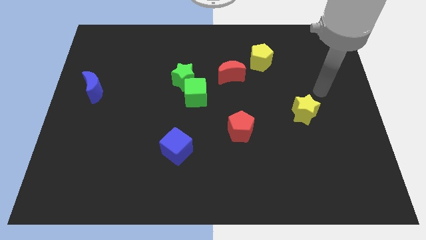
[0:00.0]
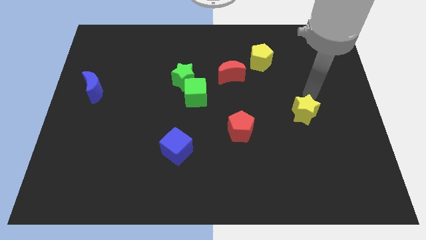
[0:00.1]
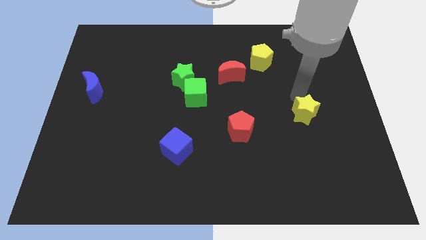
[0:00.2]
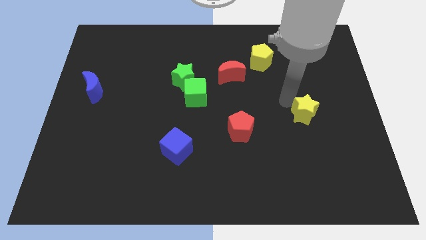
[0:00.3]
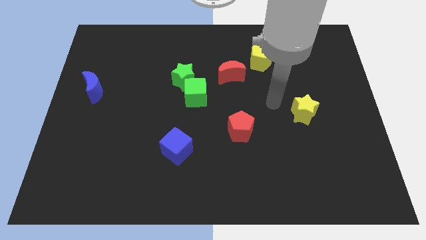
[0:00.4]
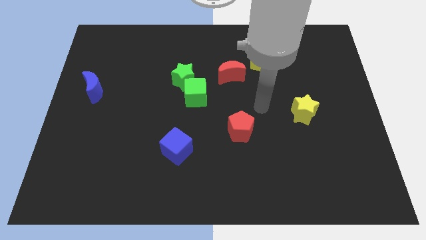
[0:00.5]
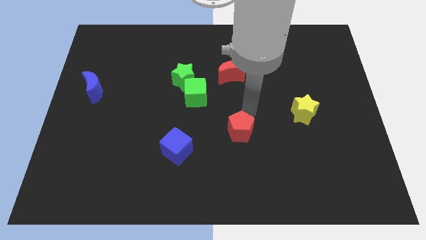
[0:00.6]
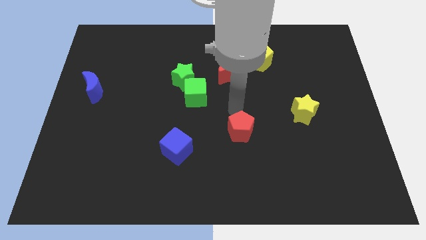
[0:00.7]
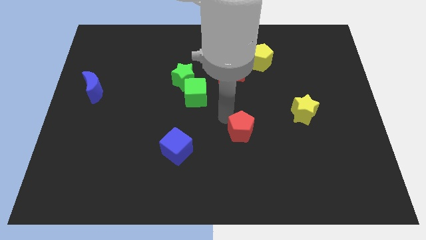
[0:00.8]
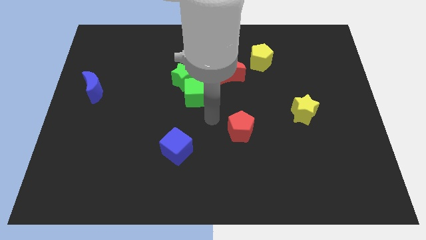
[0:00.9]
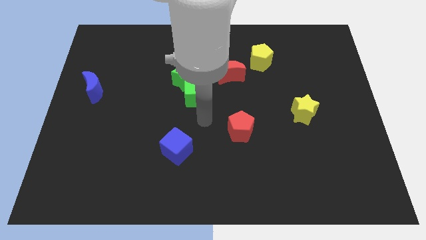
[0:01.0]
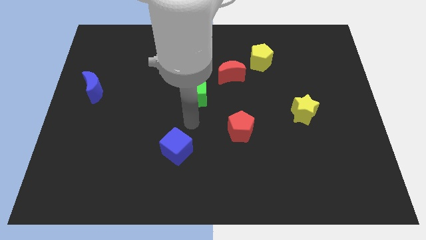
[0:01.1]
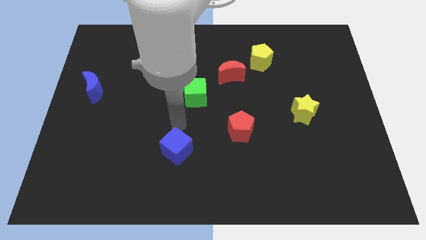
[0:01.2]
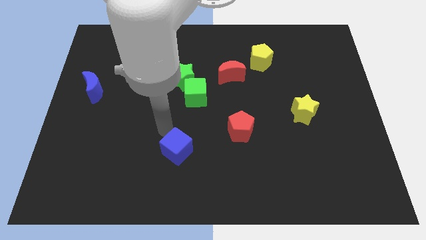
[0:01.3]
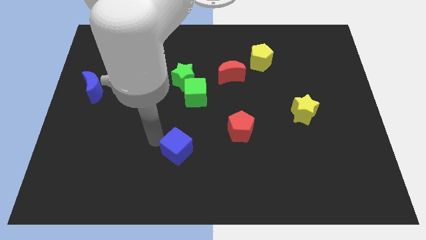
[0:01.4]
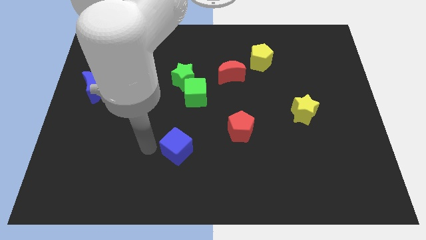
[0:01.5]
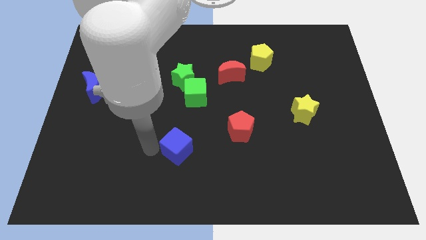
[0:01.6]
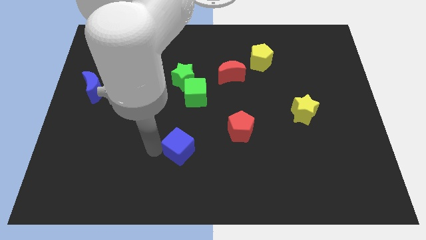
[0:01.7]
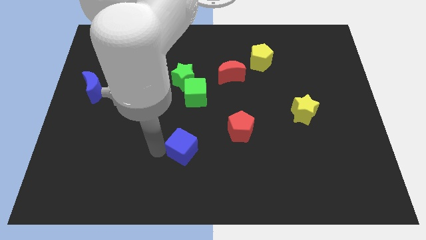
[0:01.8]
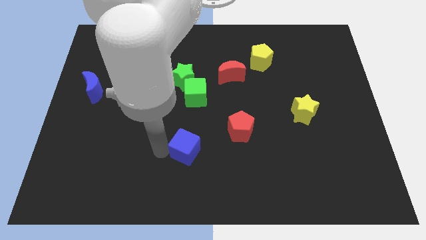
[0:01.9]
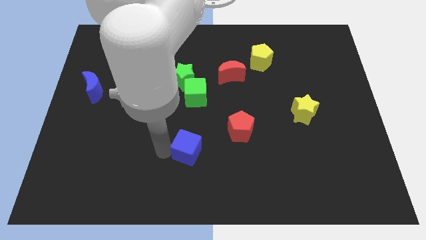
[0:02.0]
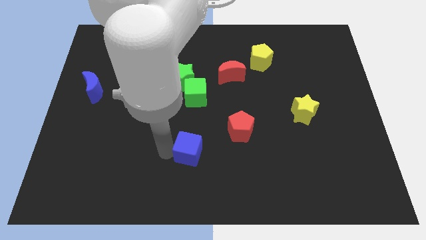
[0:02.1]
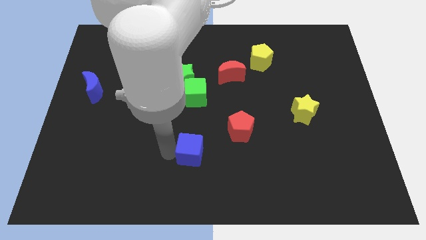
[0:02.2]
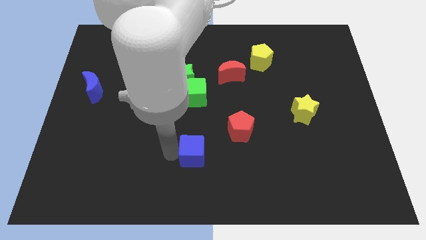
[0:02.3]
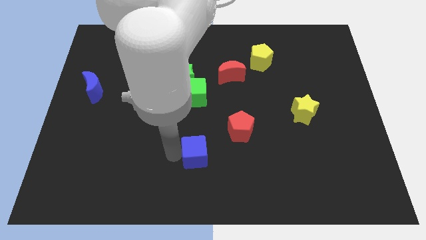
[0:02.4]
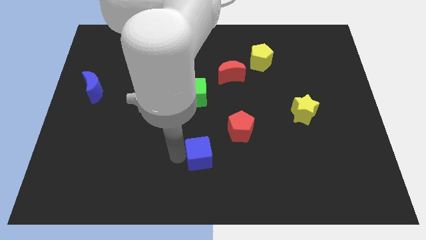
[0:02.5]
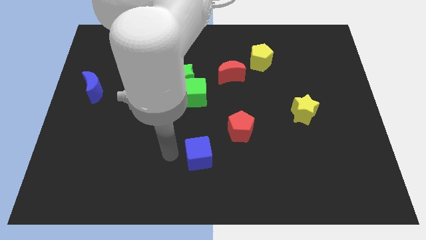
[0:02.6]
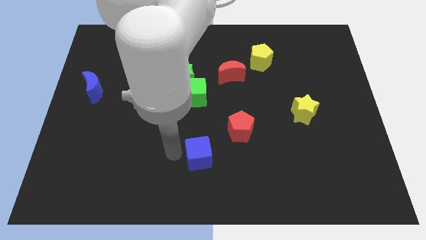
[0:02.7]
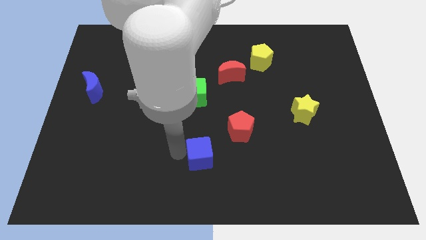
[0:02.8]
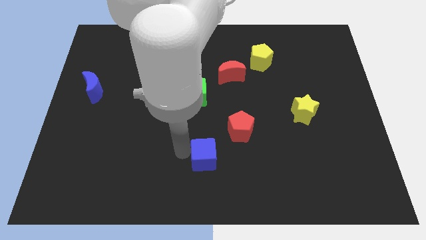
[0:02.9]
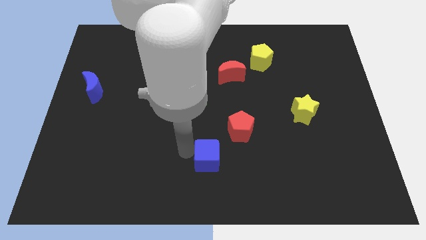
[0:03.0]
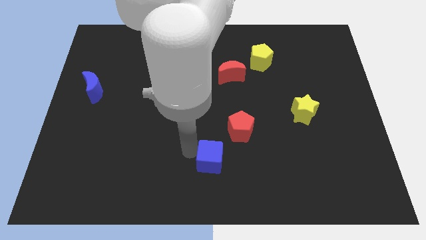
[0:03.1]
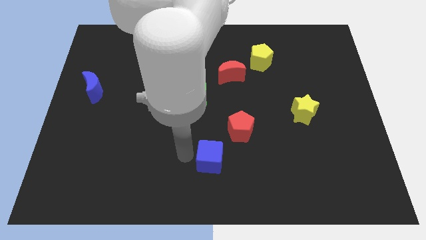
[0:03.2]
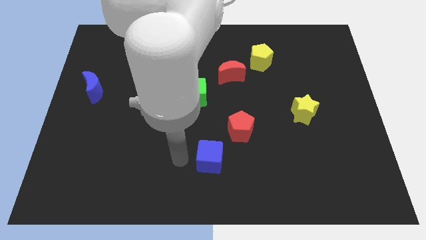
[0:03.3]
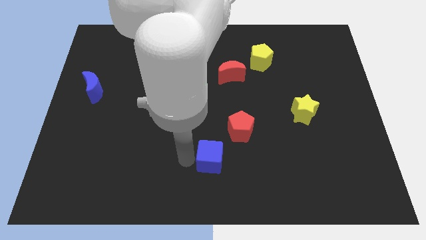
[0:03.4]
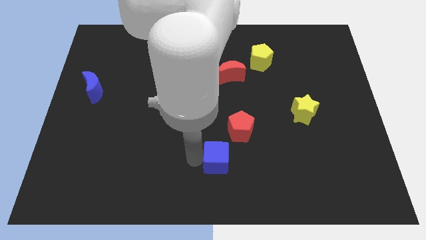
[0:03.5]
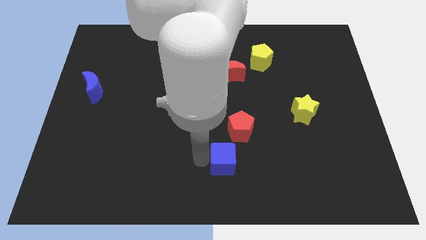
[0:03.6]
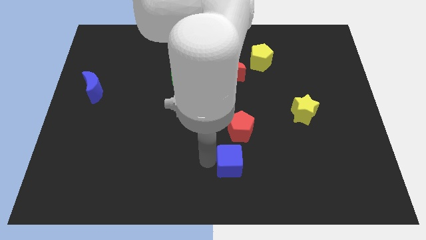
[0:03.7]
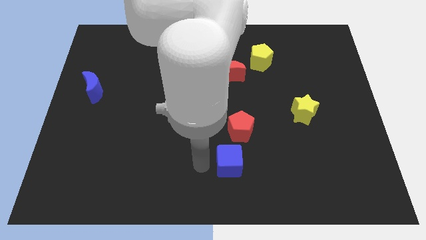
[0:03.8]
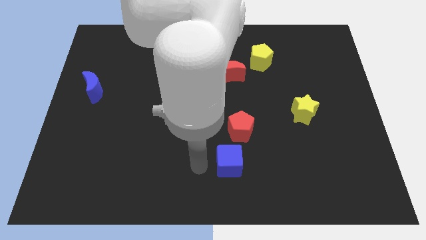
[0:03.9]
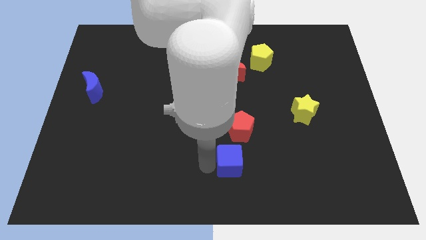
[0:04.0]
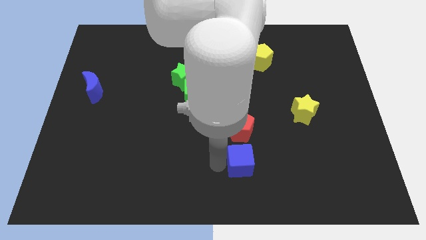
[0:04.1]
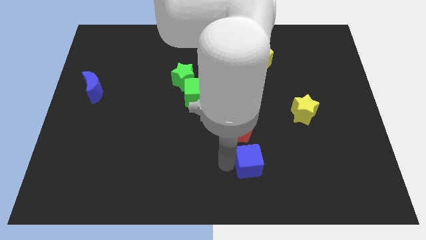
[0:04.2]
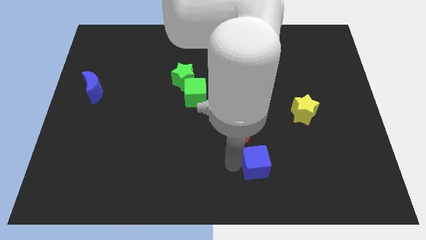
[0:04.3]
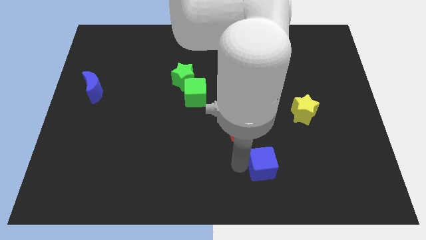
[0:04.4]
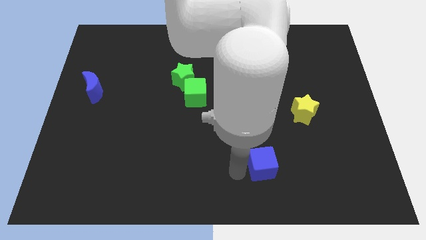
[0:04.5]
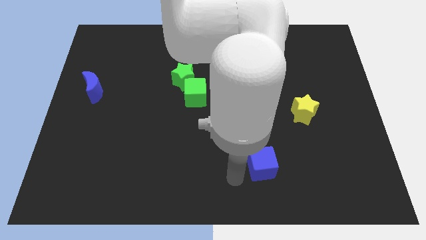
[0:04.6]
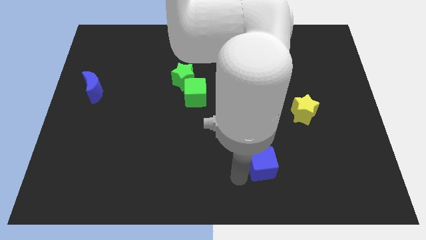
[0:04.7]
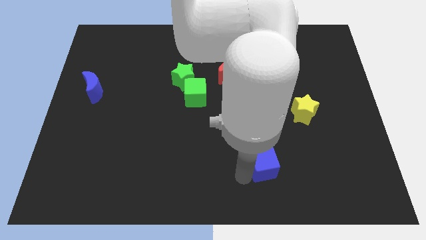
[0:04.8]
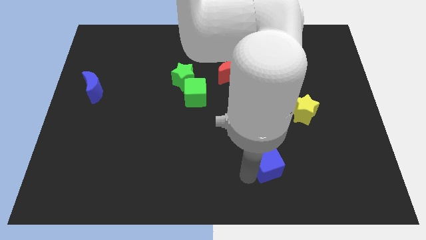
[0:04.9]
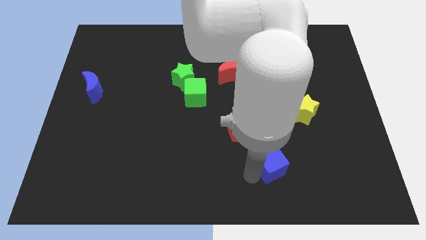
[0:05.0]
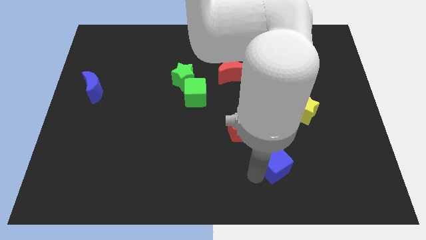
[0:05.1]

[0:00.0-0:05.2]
push the blue cube to the right

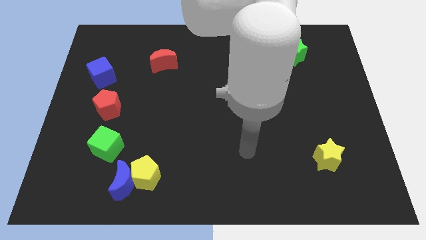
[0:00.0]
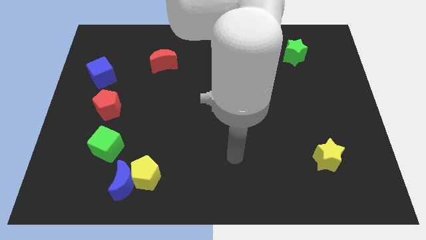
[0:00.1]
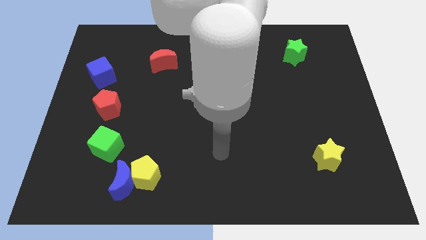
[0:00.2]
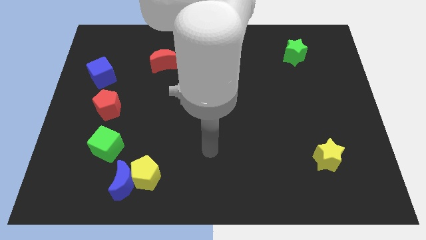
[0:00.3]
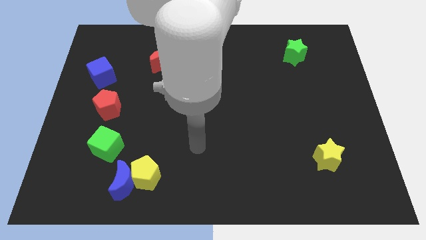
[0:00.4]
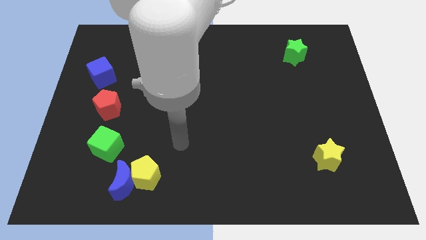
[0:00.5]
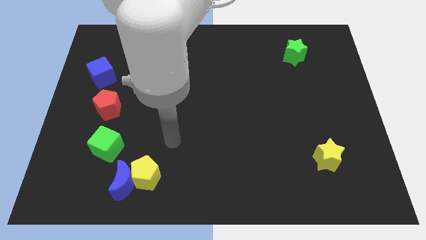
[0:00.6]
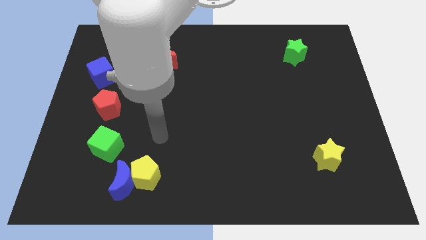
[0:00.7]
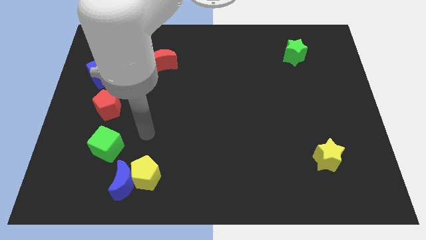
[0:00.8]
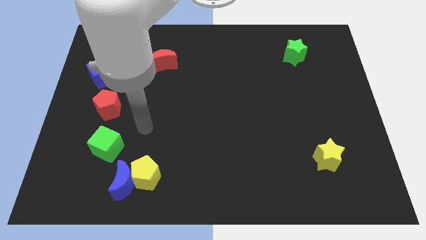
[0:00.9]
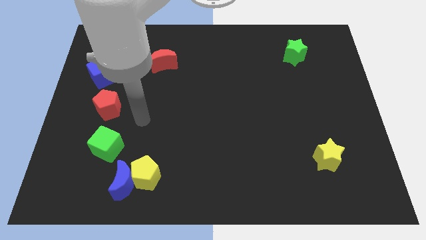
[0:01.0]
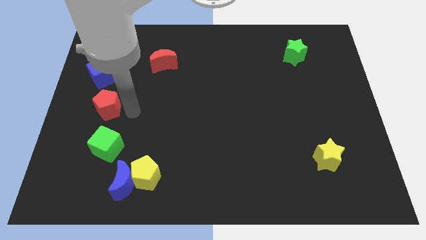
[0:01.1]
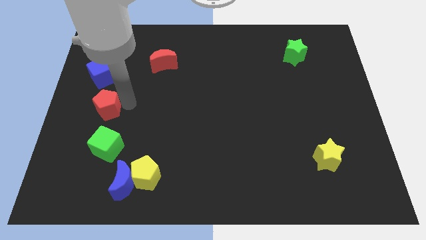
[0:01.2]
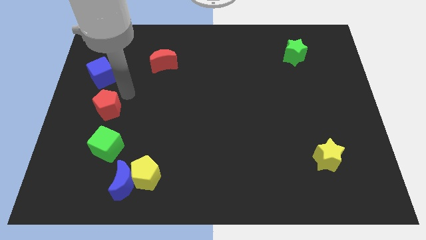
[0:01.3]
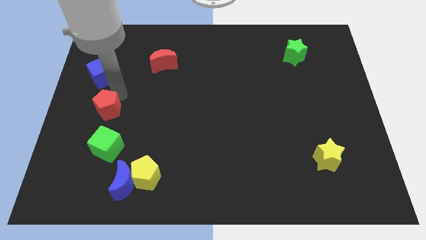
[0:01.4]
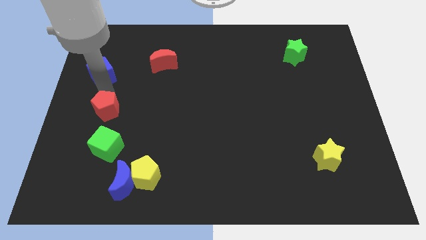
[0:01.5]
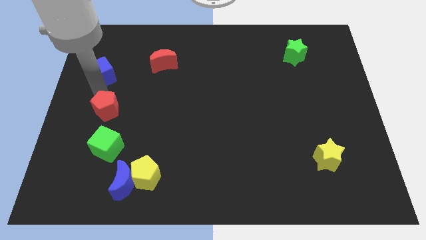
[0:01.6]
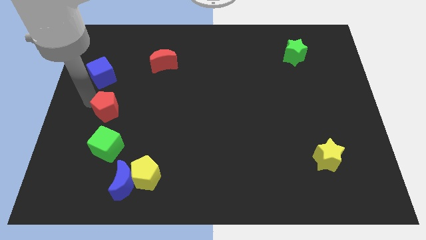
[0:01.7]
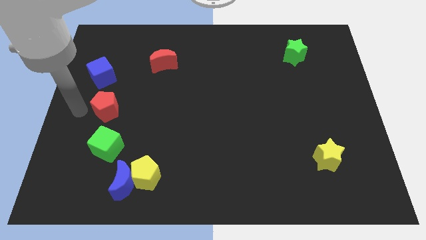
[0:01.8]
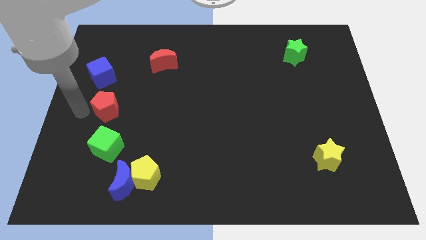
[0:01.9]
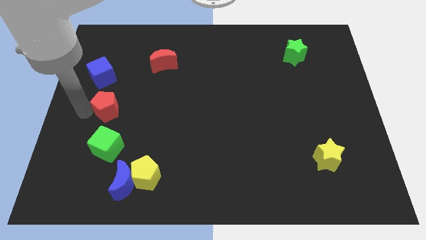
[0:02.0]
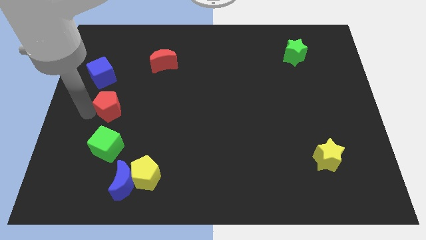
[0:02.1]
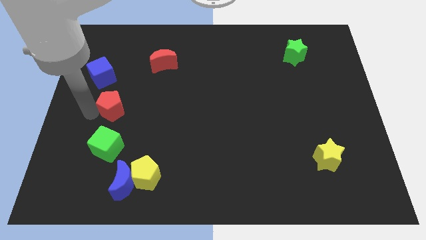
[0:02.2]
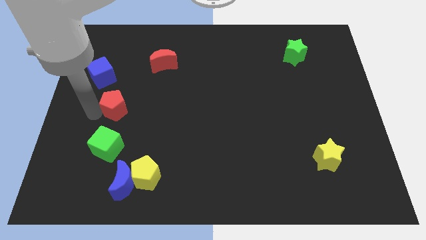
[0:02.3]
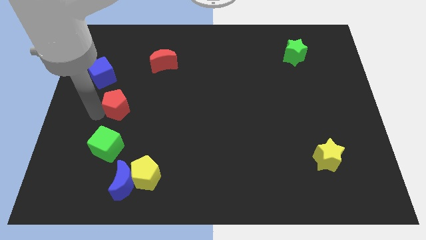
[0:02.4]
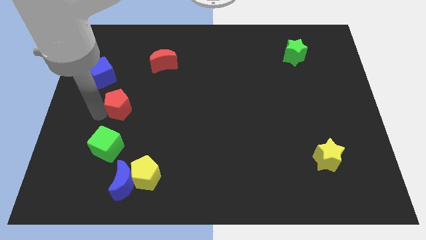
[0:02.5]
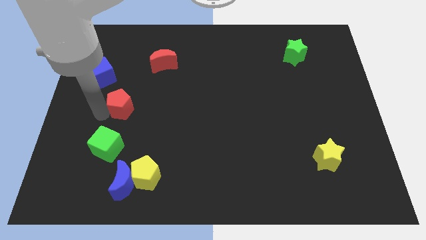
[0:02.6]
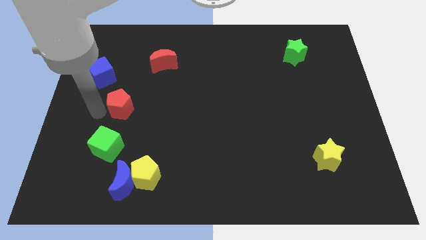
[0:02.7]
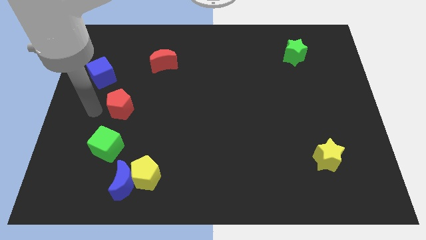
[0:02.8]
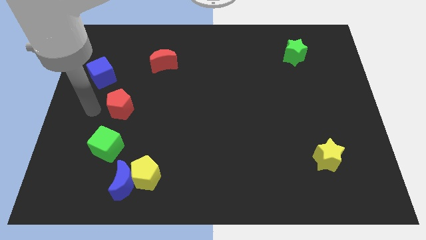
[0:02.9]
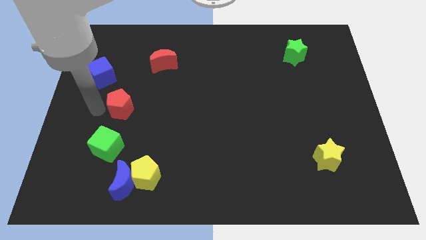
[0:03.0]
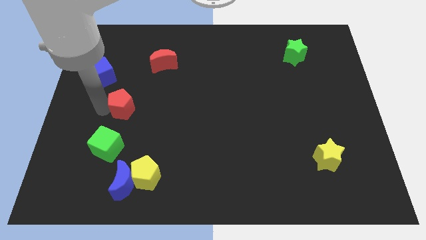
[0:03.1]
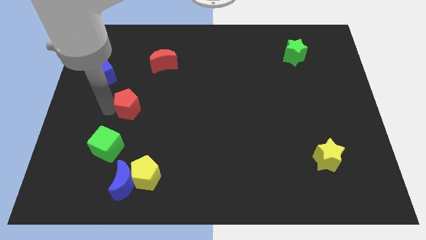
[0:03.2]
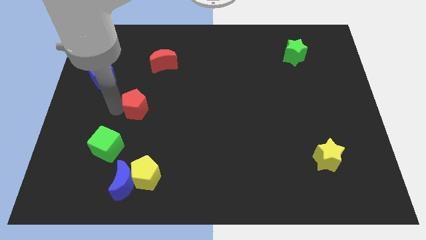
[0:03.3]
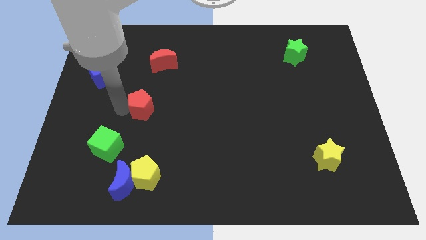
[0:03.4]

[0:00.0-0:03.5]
slightly move the red pentagon right
